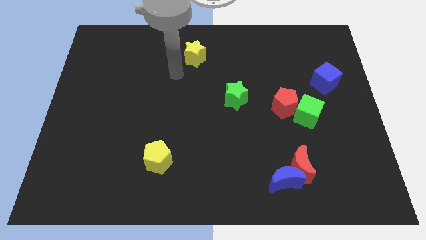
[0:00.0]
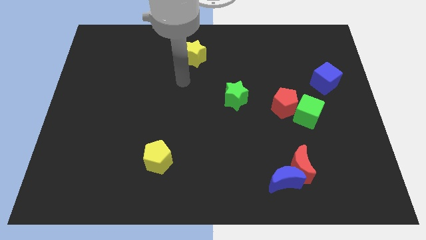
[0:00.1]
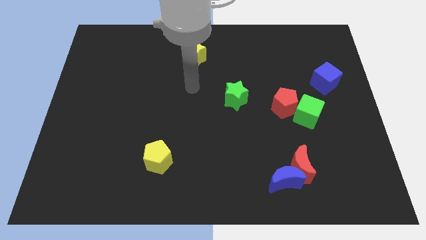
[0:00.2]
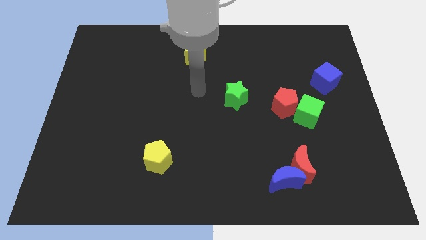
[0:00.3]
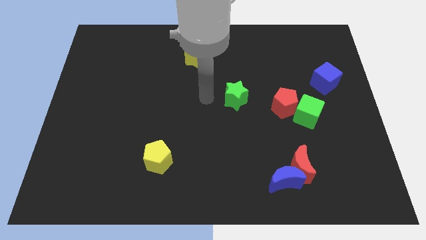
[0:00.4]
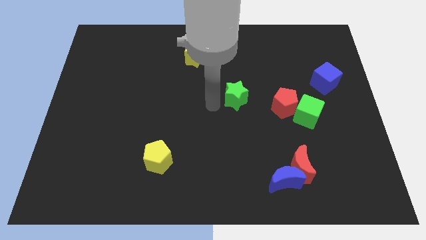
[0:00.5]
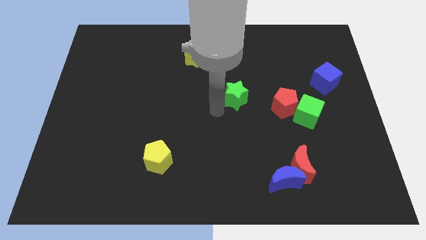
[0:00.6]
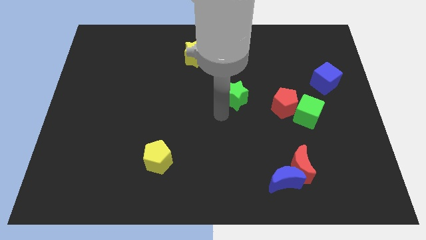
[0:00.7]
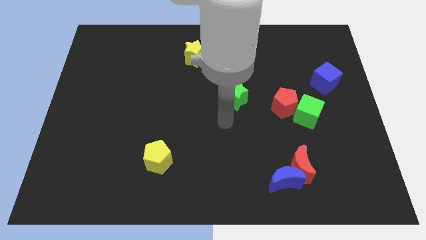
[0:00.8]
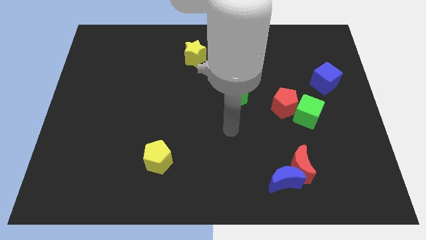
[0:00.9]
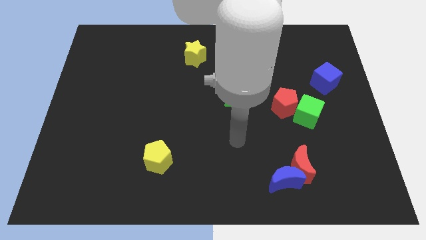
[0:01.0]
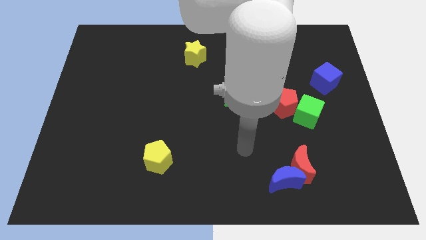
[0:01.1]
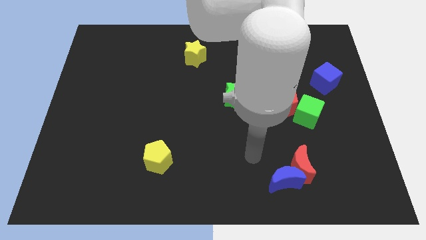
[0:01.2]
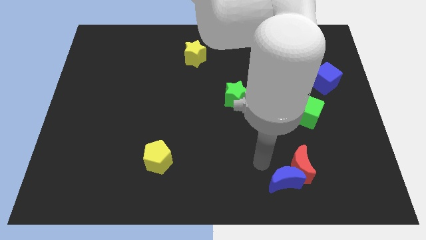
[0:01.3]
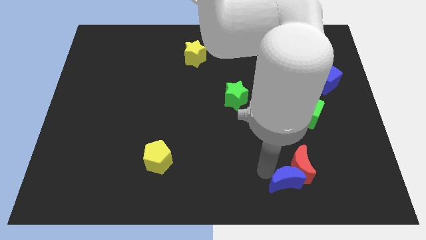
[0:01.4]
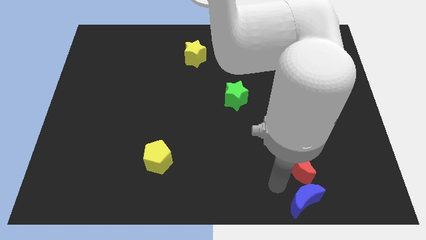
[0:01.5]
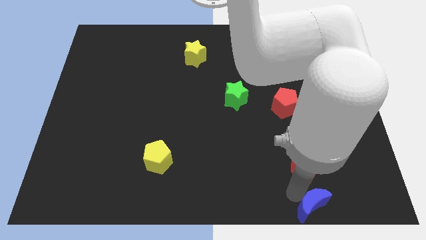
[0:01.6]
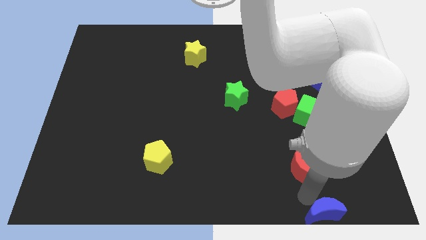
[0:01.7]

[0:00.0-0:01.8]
pull the red moon apart from the blue moon

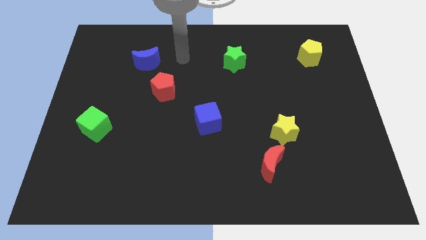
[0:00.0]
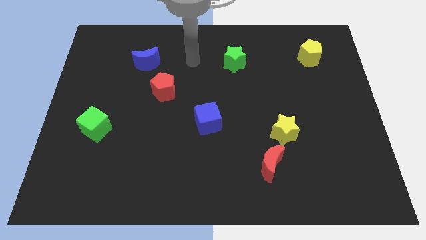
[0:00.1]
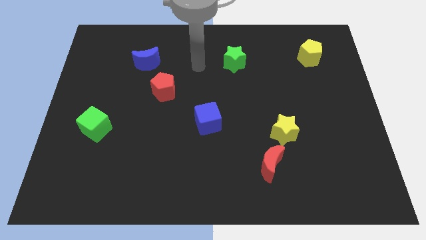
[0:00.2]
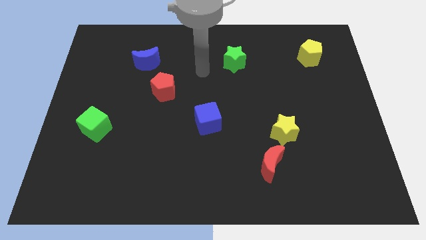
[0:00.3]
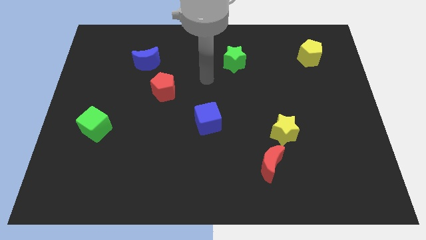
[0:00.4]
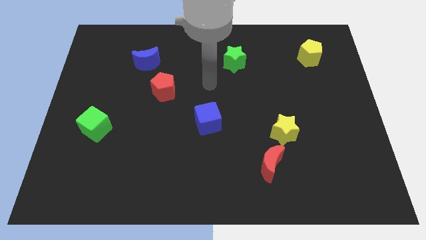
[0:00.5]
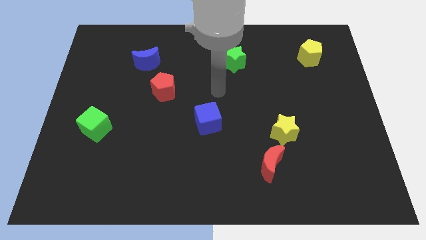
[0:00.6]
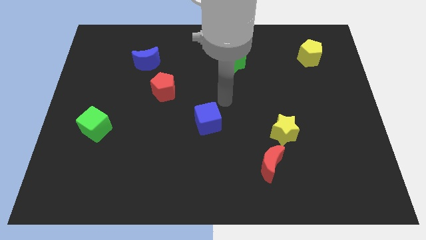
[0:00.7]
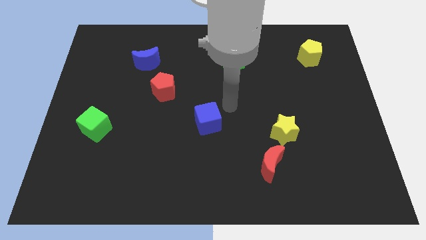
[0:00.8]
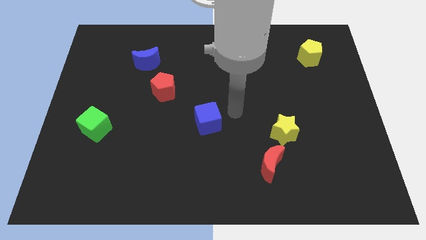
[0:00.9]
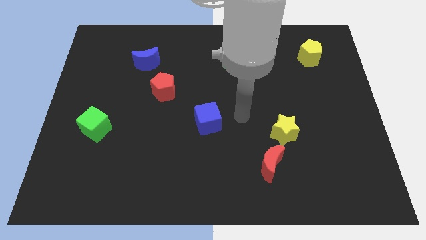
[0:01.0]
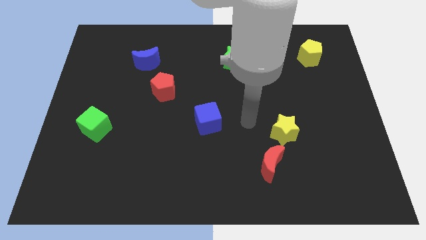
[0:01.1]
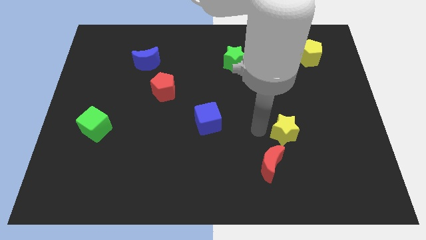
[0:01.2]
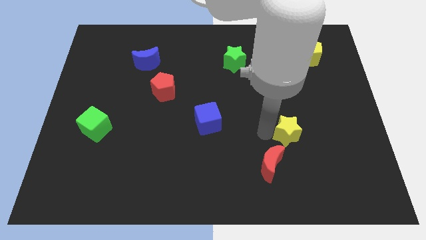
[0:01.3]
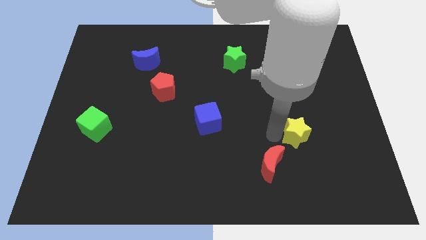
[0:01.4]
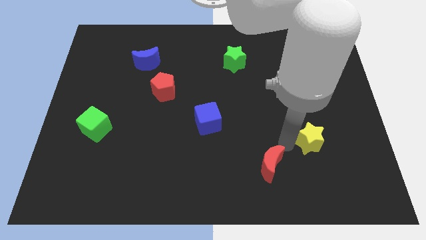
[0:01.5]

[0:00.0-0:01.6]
move the red moon away from the yellow star

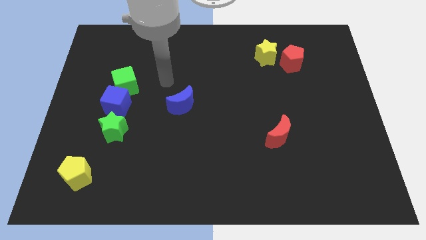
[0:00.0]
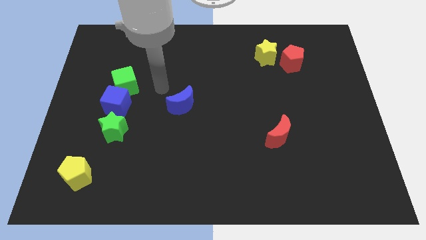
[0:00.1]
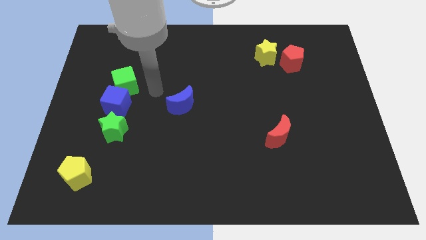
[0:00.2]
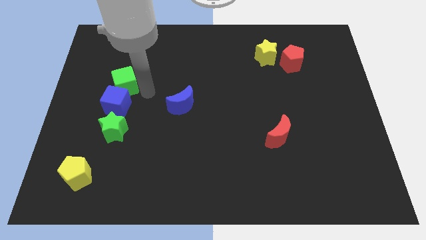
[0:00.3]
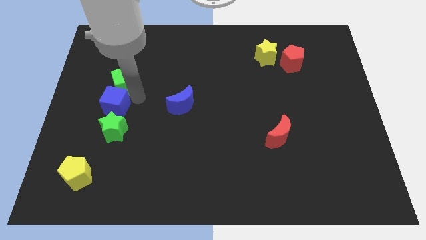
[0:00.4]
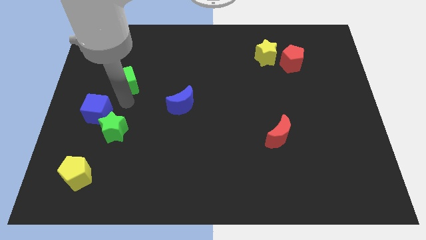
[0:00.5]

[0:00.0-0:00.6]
separate the green cube from the blue cube

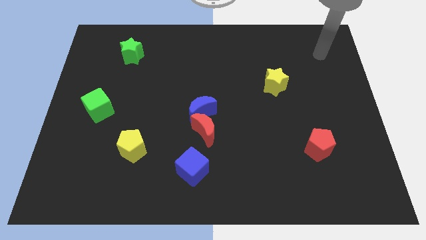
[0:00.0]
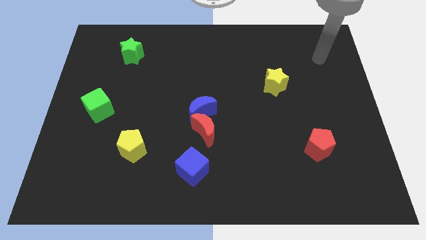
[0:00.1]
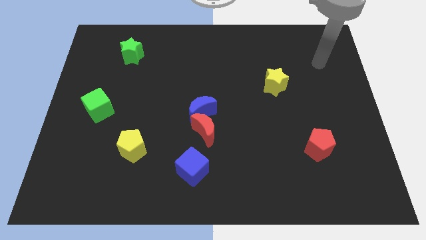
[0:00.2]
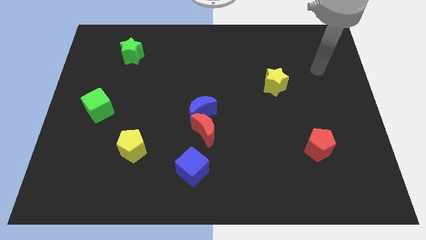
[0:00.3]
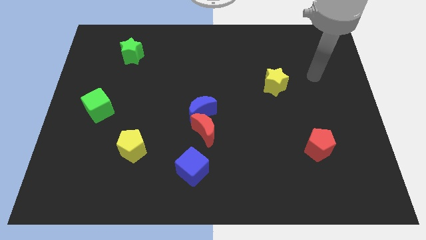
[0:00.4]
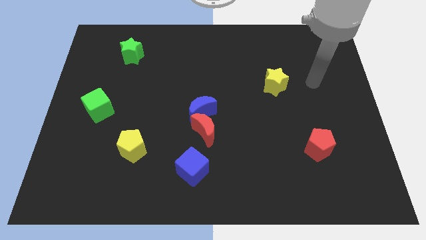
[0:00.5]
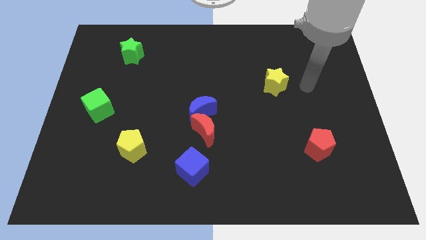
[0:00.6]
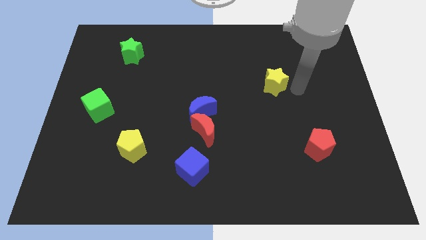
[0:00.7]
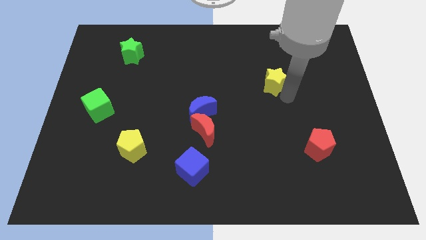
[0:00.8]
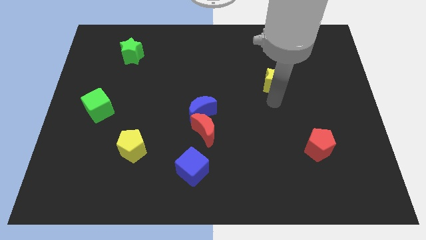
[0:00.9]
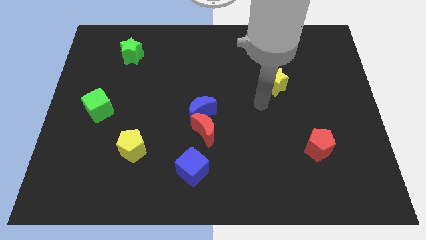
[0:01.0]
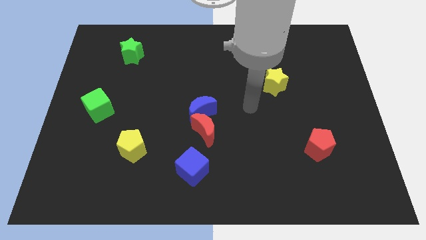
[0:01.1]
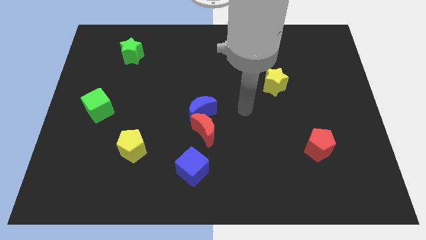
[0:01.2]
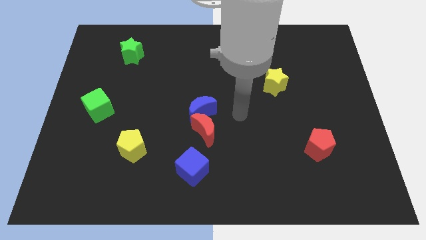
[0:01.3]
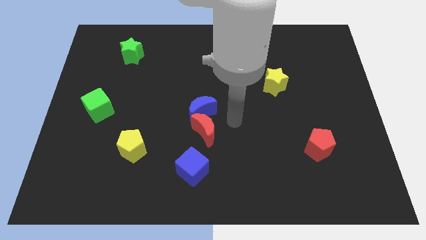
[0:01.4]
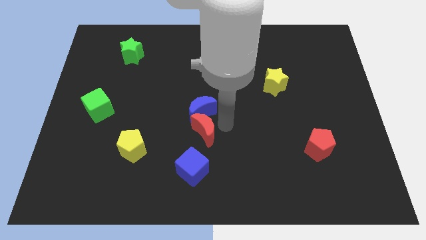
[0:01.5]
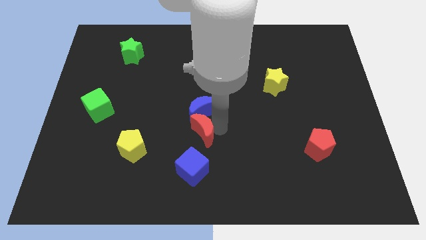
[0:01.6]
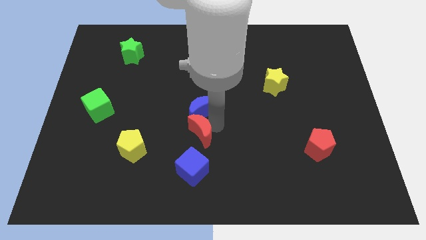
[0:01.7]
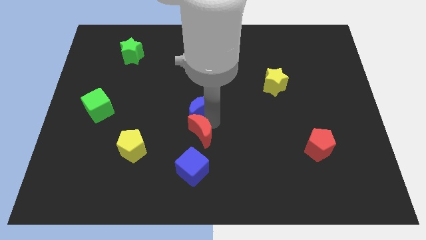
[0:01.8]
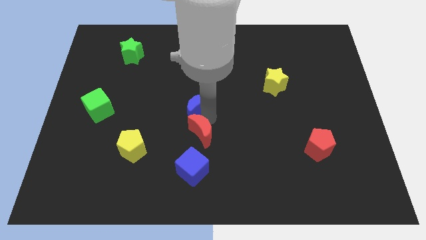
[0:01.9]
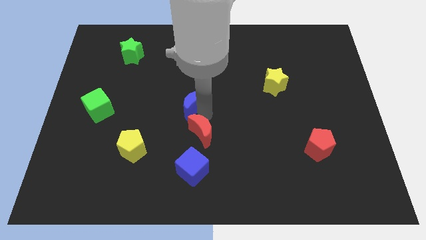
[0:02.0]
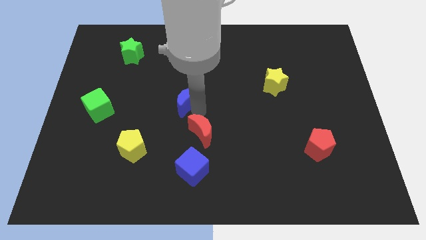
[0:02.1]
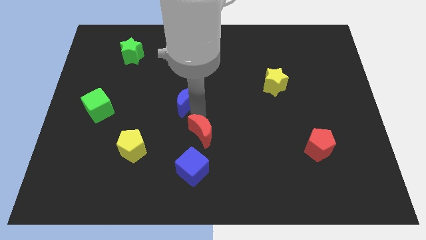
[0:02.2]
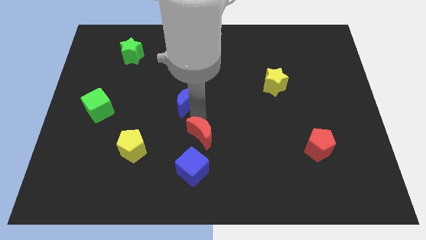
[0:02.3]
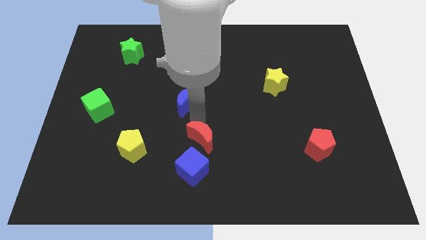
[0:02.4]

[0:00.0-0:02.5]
move the blue moon away from the red moon

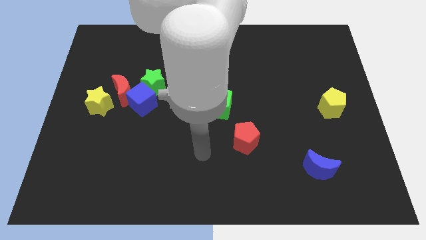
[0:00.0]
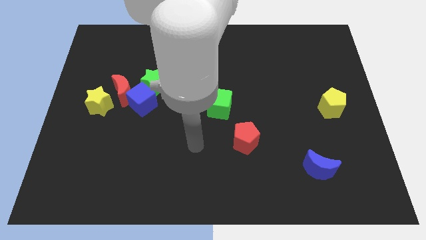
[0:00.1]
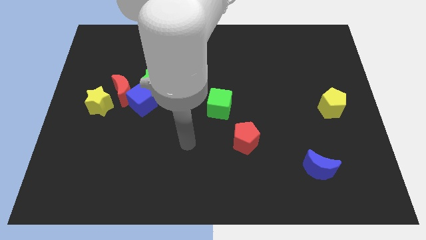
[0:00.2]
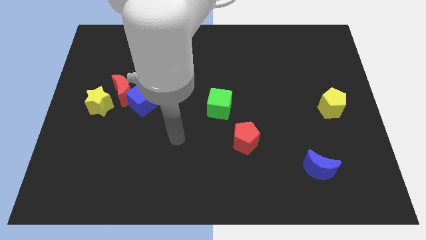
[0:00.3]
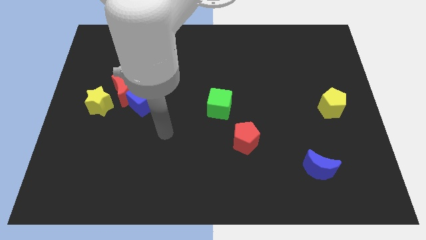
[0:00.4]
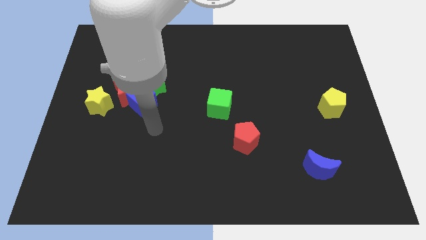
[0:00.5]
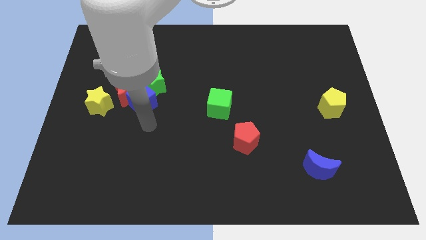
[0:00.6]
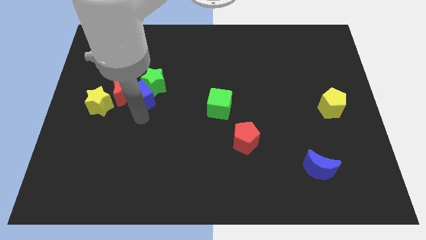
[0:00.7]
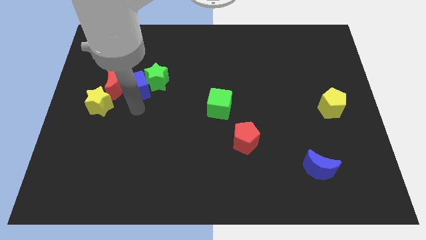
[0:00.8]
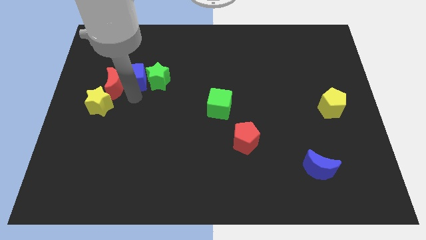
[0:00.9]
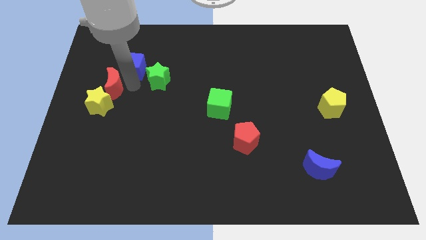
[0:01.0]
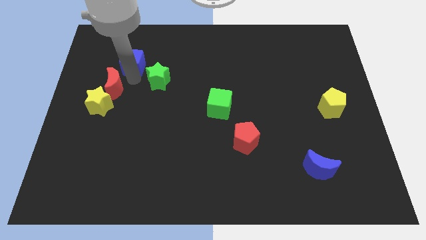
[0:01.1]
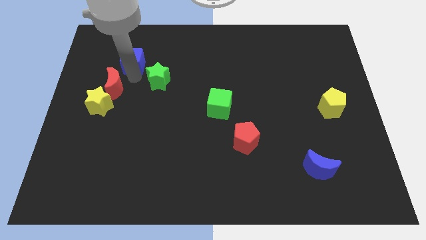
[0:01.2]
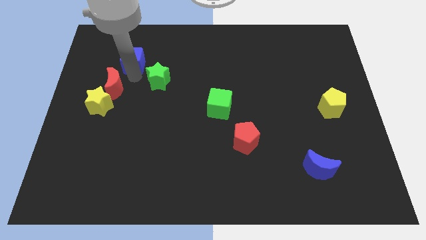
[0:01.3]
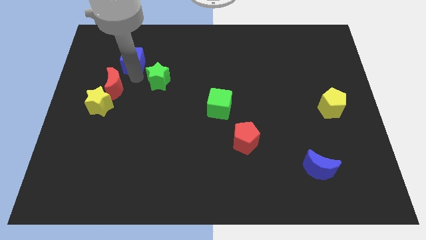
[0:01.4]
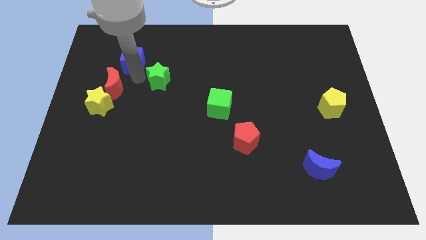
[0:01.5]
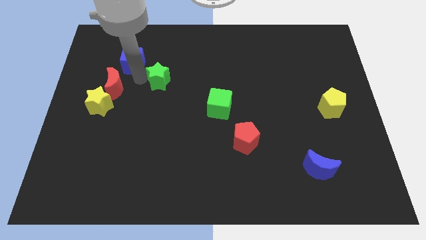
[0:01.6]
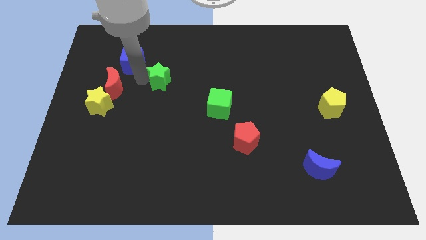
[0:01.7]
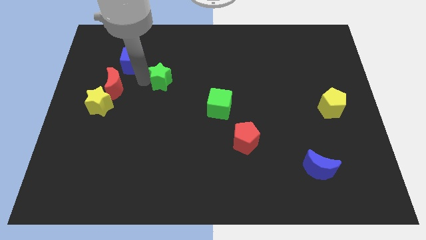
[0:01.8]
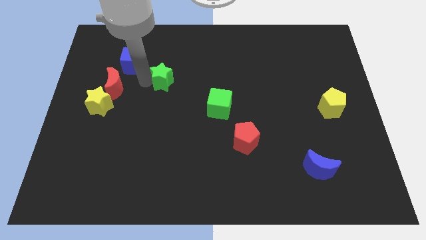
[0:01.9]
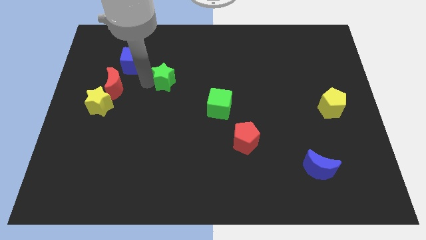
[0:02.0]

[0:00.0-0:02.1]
pull the green star apart from the blue cube and red moon

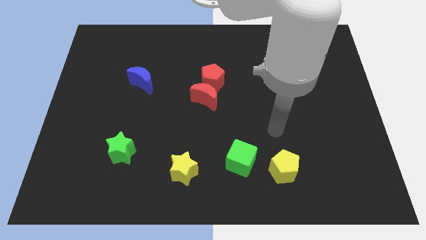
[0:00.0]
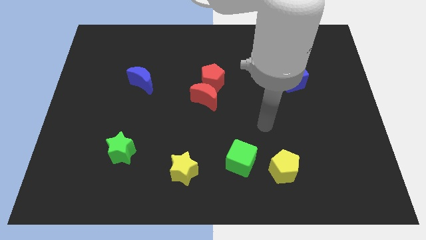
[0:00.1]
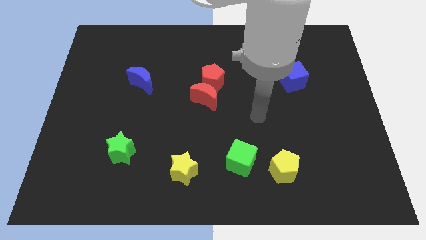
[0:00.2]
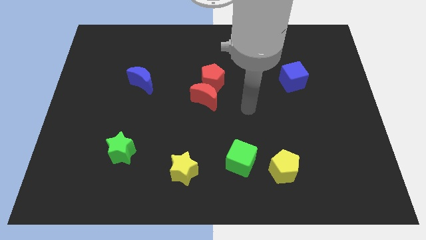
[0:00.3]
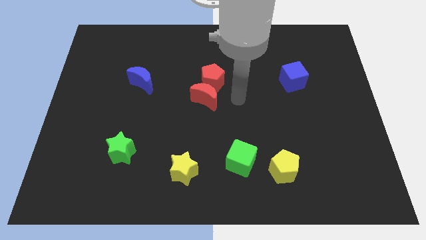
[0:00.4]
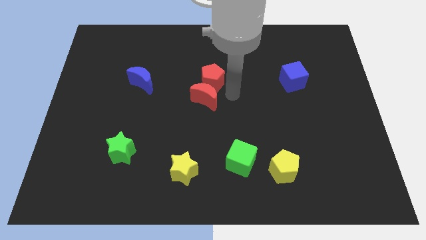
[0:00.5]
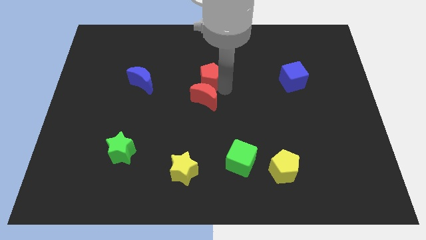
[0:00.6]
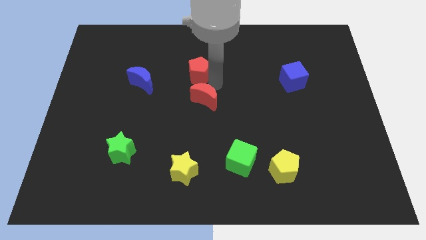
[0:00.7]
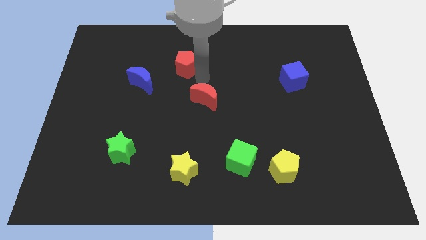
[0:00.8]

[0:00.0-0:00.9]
pull the red moon apart from the red pentagon

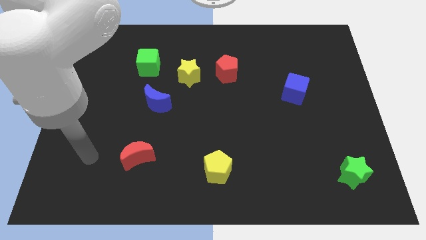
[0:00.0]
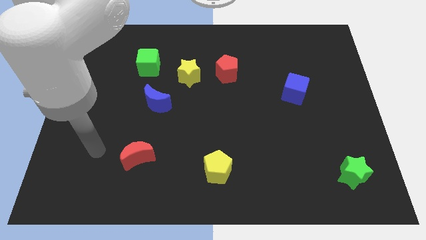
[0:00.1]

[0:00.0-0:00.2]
move the red pentagon away from the yellow star
